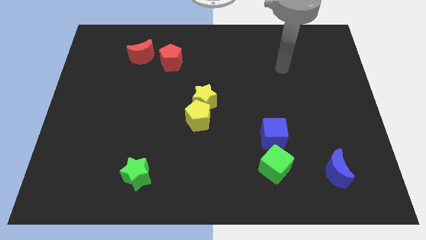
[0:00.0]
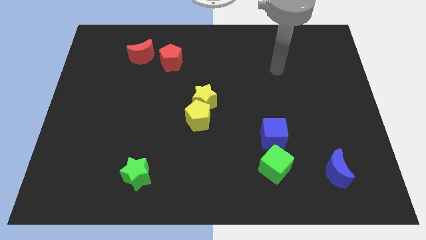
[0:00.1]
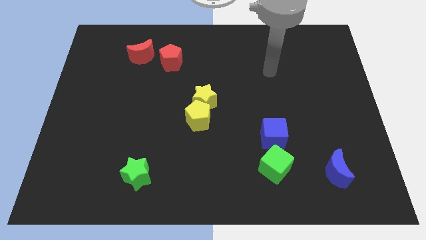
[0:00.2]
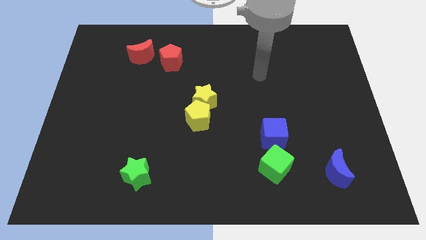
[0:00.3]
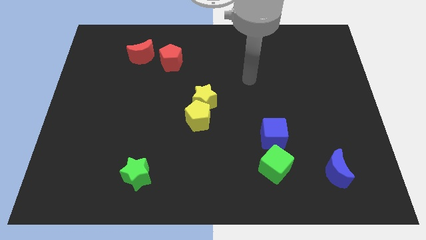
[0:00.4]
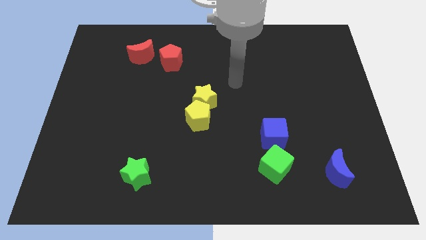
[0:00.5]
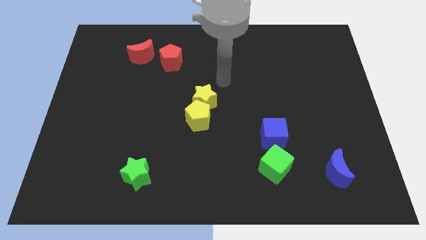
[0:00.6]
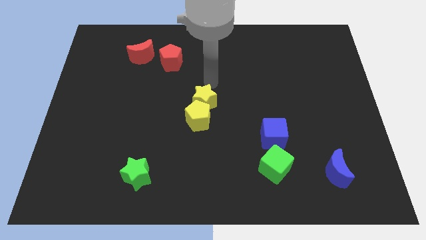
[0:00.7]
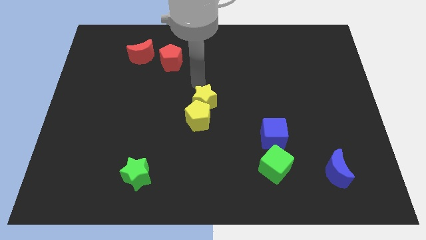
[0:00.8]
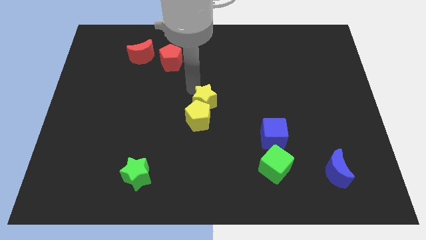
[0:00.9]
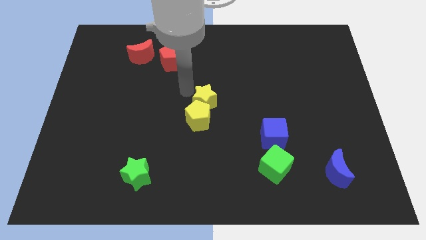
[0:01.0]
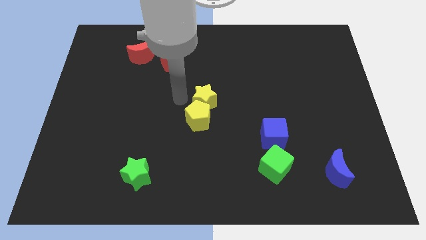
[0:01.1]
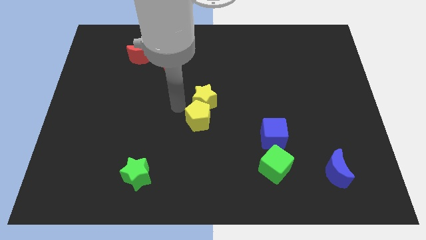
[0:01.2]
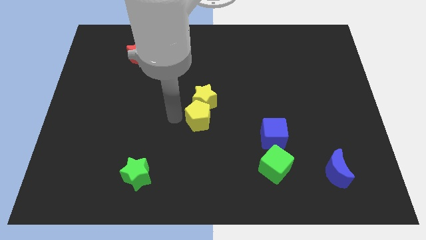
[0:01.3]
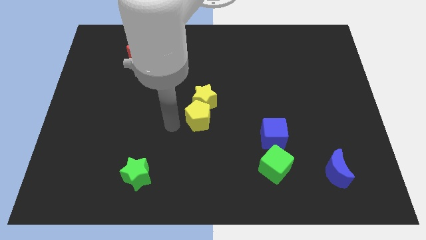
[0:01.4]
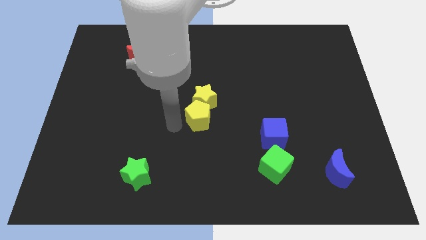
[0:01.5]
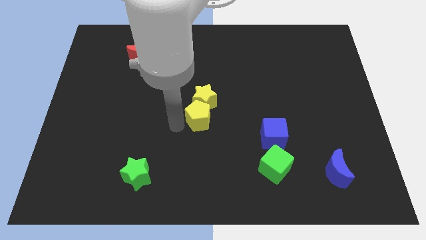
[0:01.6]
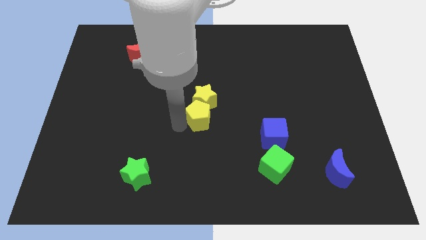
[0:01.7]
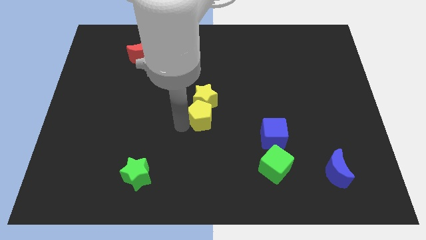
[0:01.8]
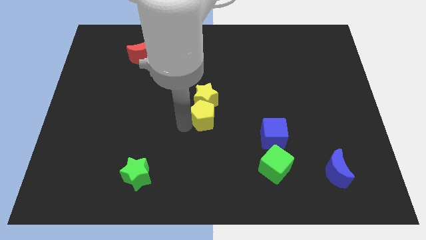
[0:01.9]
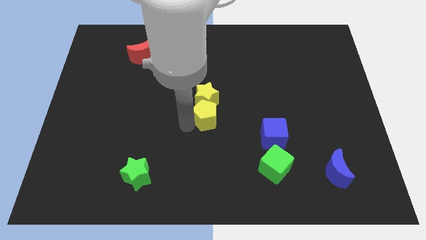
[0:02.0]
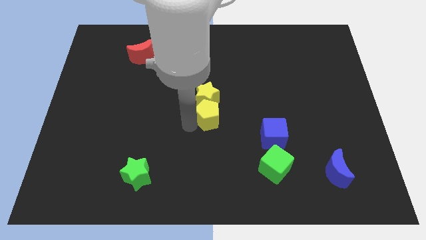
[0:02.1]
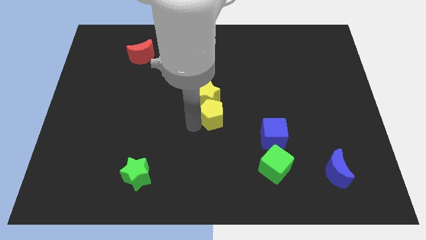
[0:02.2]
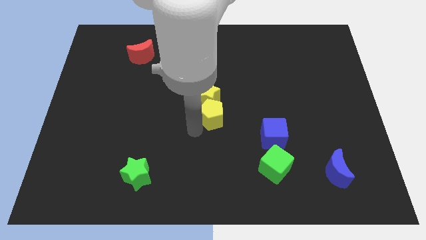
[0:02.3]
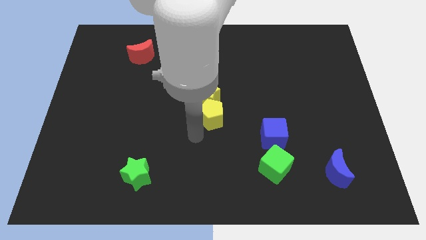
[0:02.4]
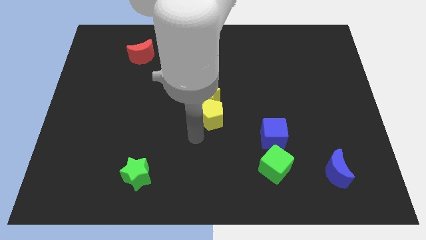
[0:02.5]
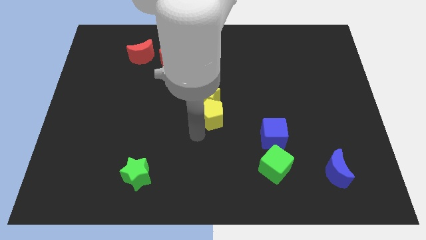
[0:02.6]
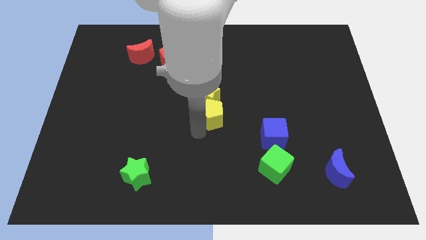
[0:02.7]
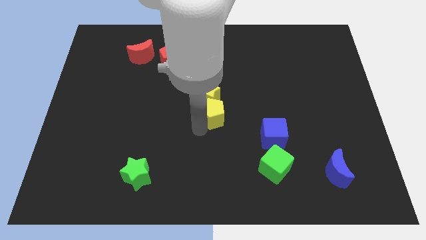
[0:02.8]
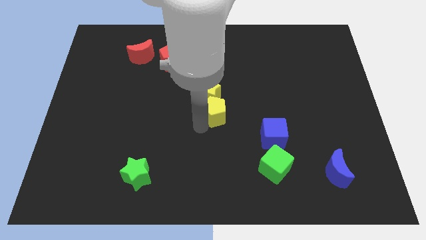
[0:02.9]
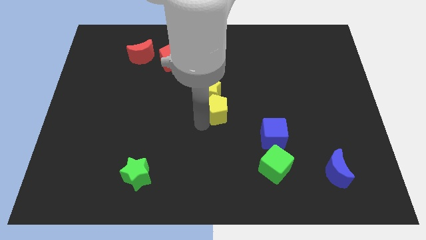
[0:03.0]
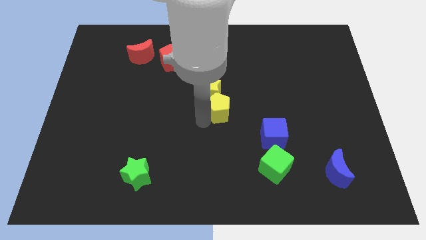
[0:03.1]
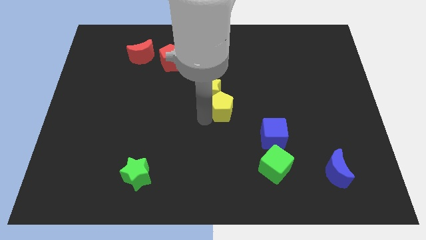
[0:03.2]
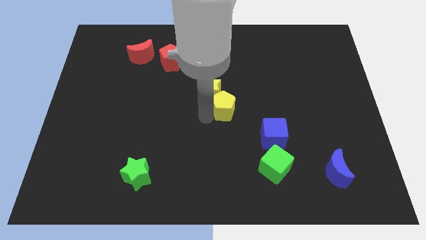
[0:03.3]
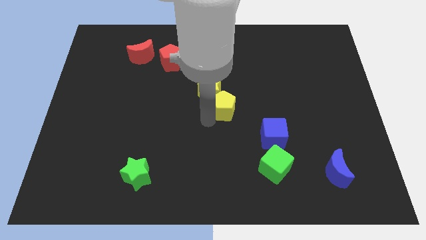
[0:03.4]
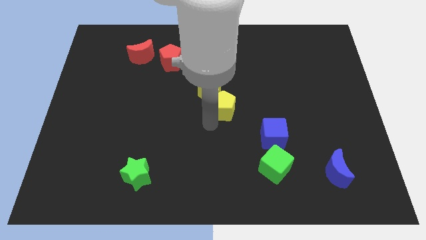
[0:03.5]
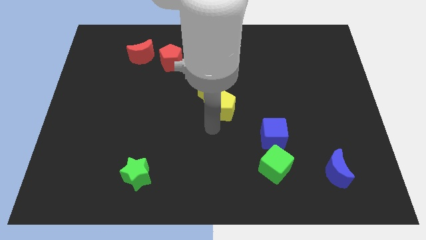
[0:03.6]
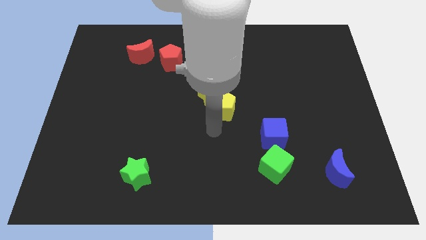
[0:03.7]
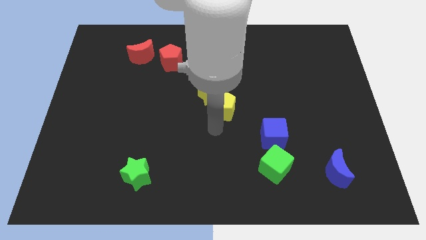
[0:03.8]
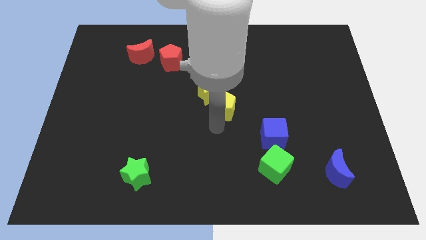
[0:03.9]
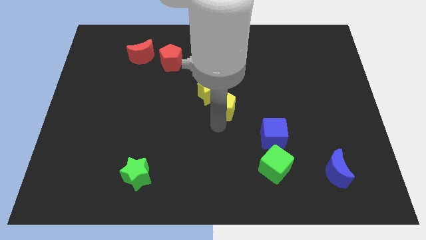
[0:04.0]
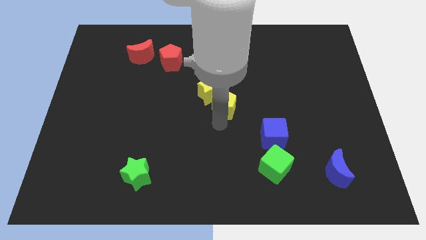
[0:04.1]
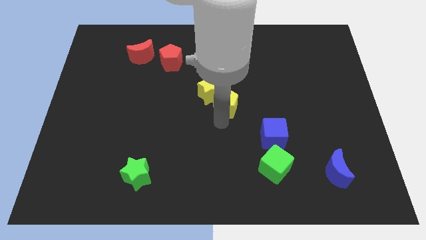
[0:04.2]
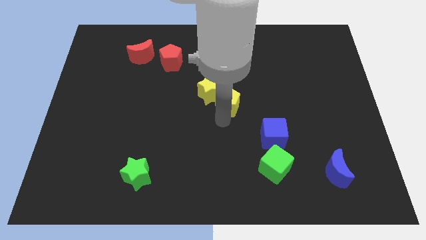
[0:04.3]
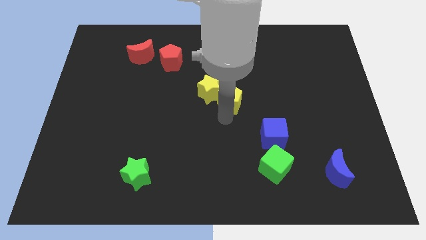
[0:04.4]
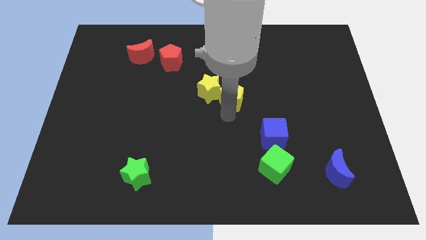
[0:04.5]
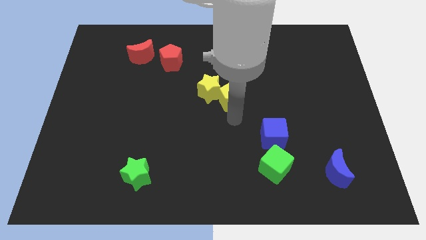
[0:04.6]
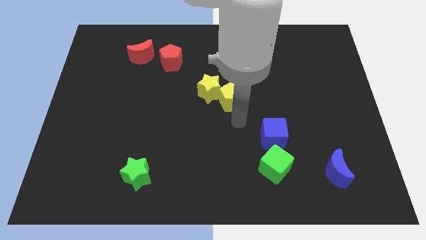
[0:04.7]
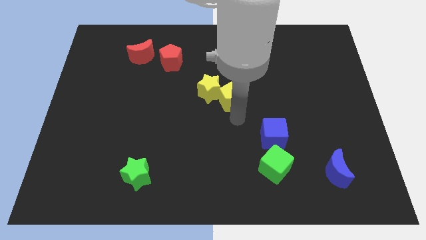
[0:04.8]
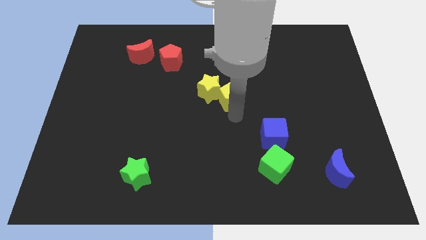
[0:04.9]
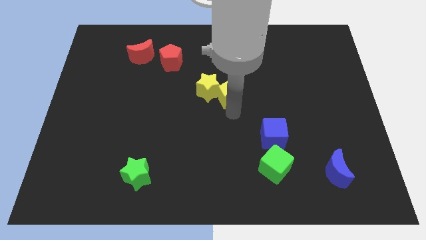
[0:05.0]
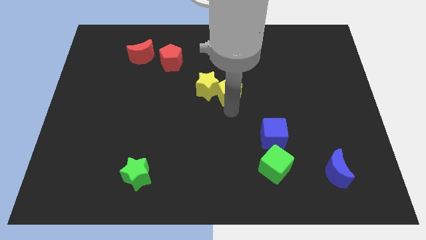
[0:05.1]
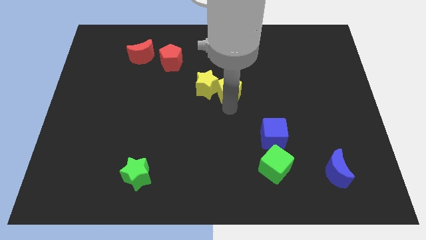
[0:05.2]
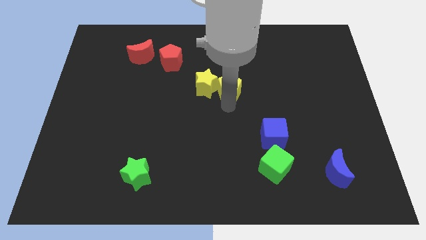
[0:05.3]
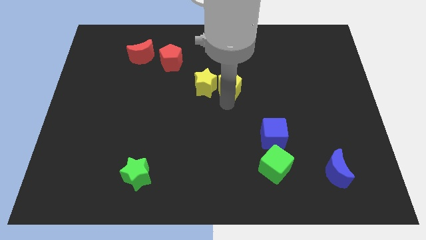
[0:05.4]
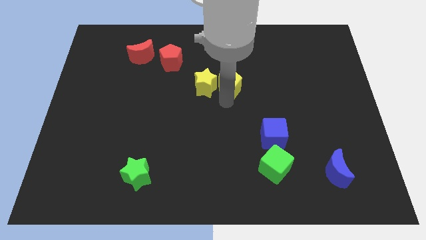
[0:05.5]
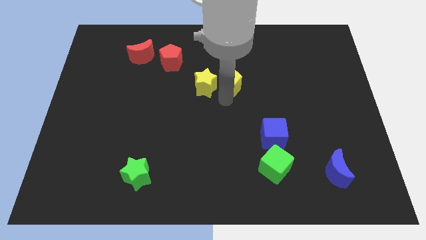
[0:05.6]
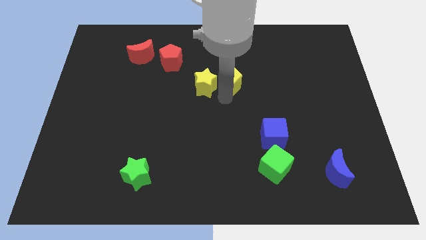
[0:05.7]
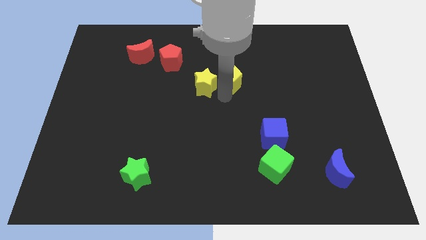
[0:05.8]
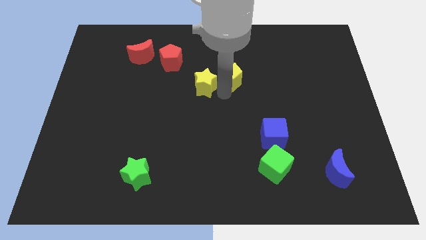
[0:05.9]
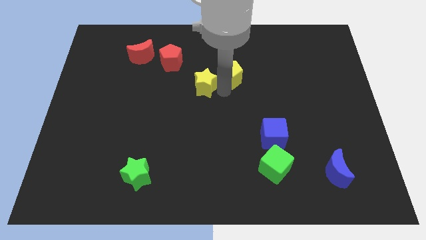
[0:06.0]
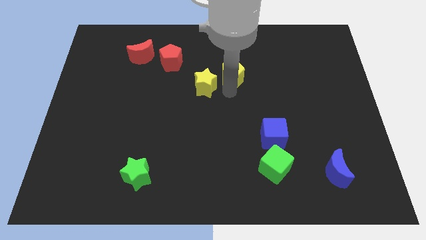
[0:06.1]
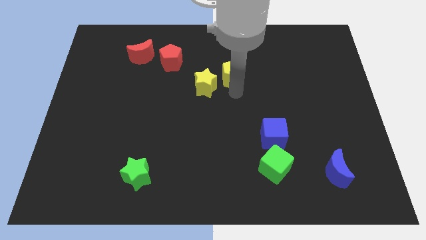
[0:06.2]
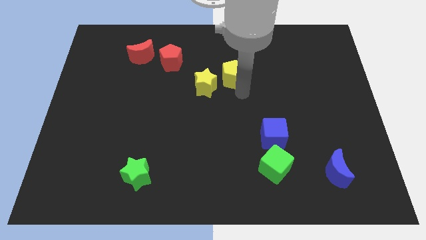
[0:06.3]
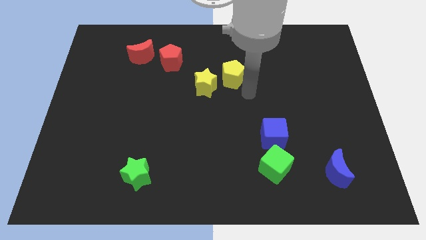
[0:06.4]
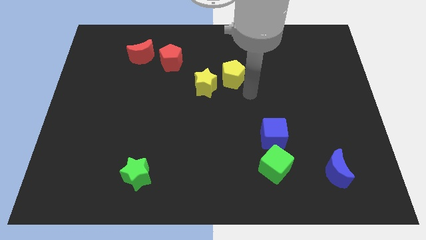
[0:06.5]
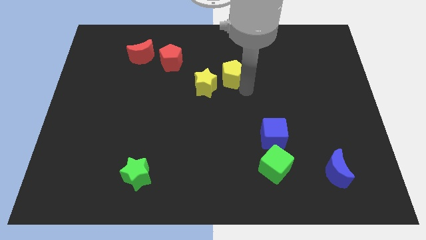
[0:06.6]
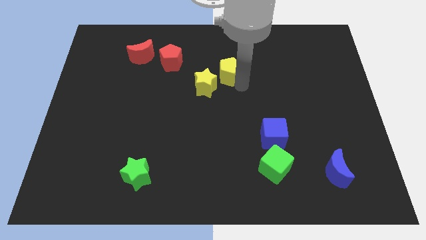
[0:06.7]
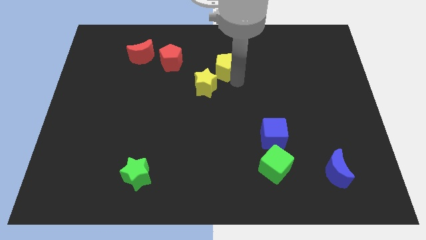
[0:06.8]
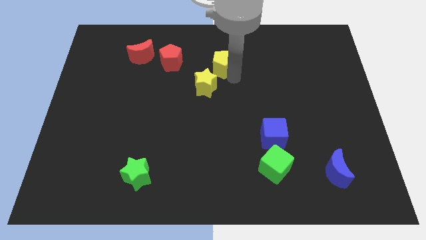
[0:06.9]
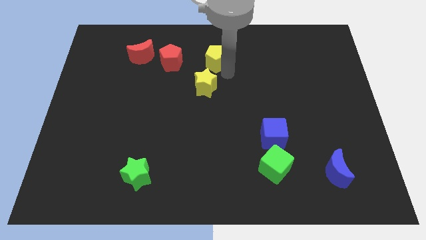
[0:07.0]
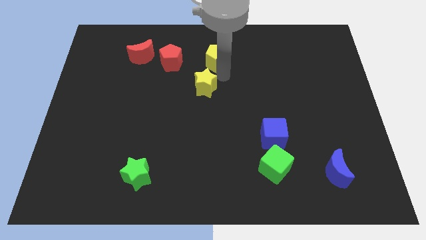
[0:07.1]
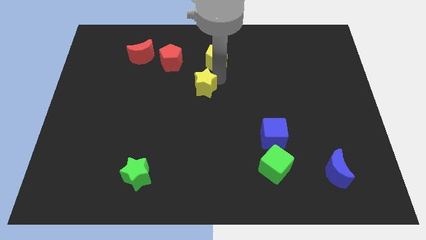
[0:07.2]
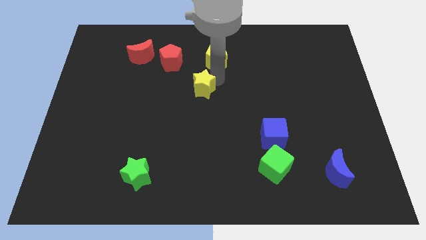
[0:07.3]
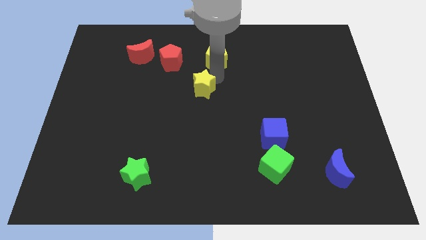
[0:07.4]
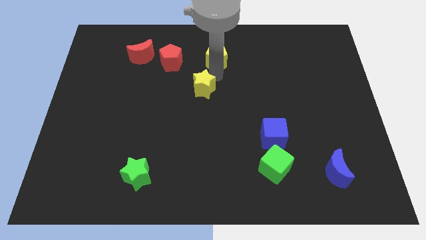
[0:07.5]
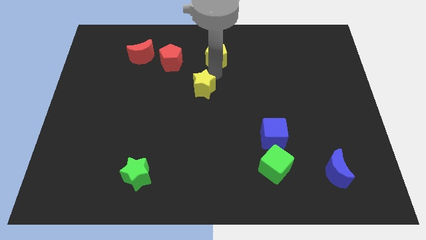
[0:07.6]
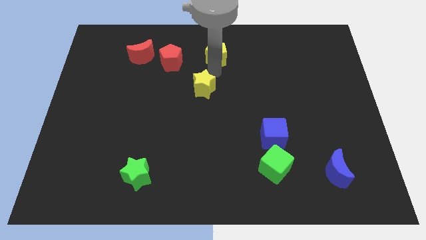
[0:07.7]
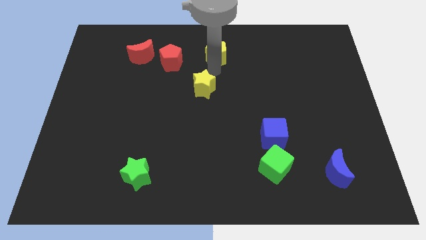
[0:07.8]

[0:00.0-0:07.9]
slide the yellow pentagon to the top
